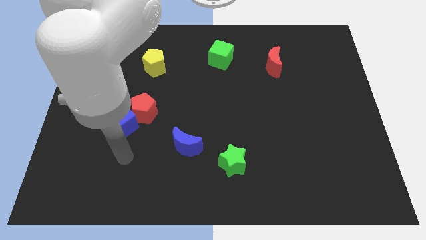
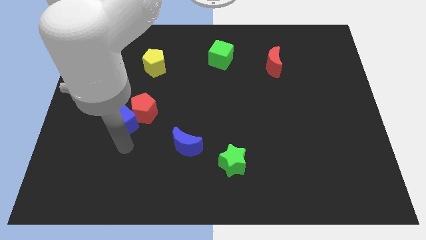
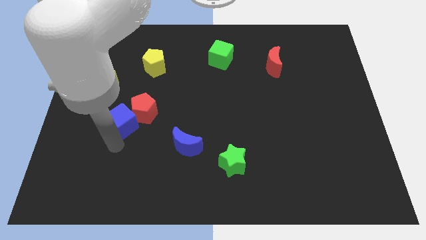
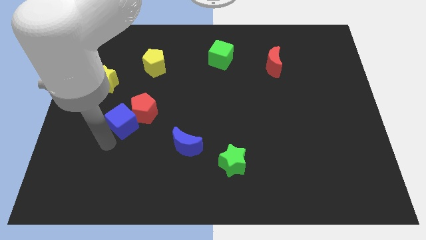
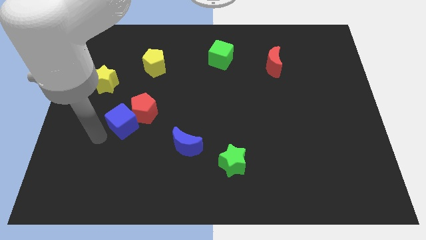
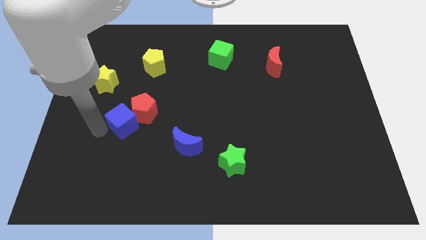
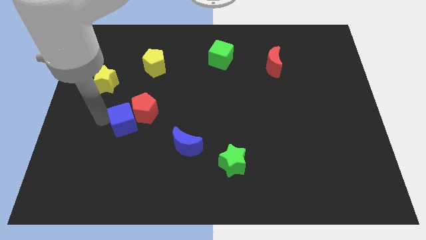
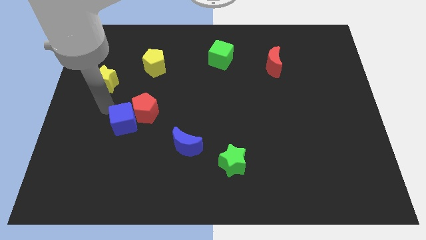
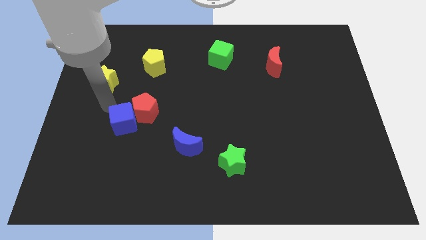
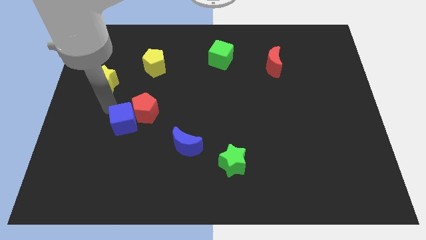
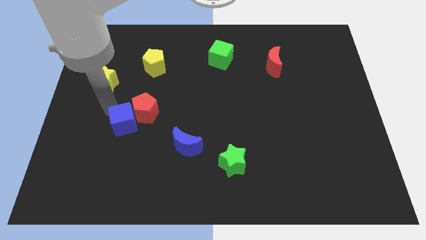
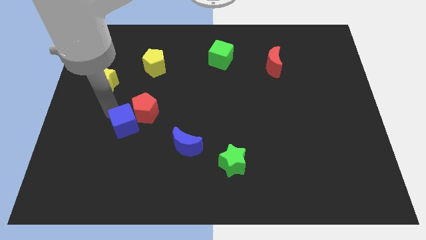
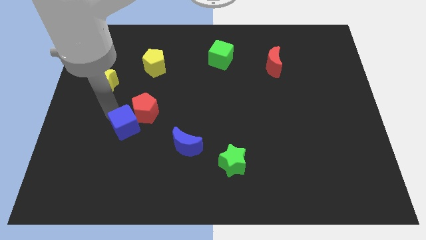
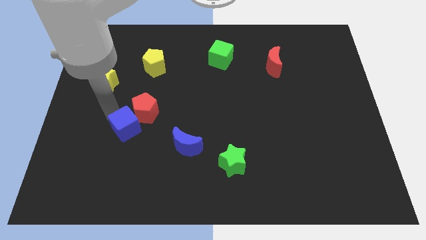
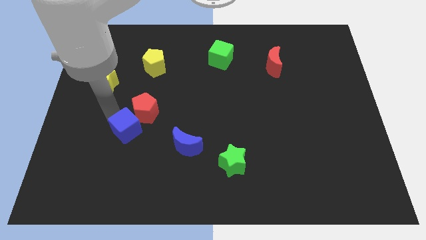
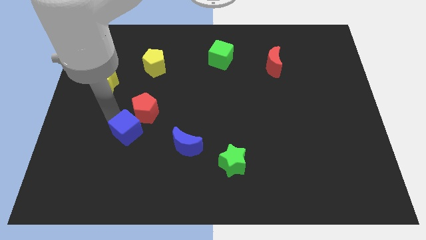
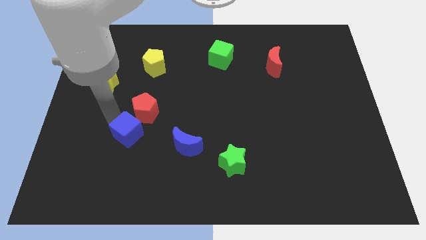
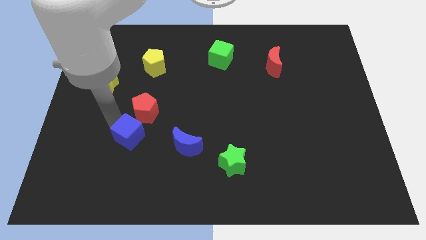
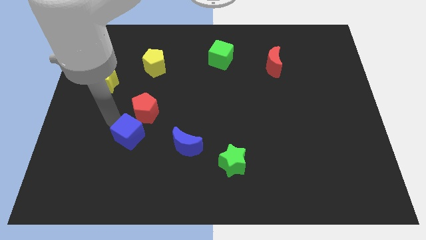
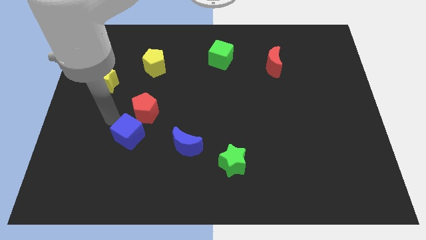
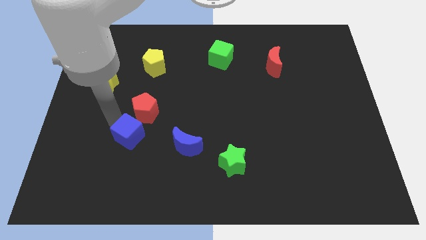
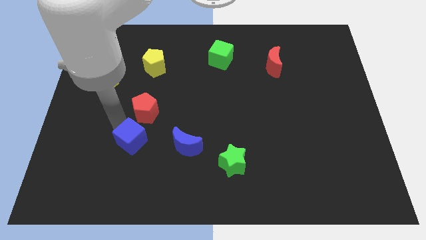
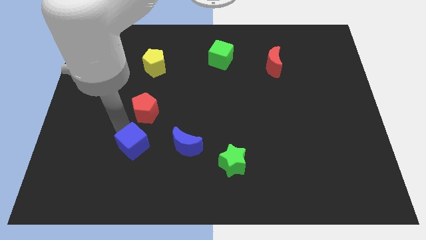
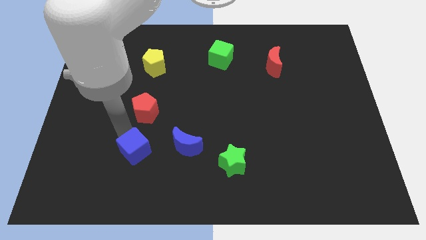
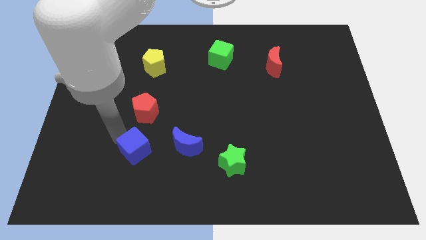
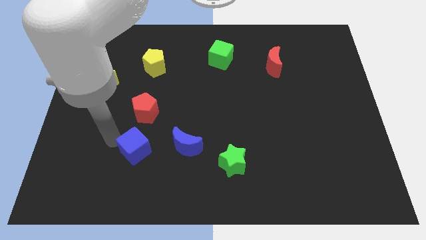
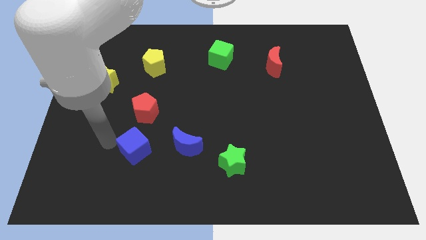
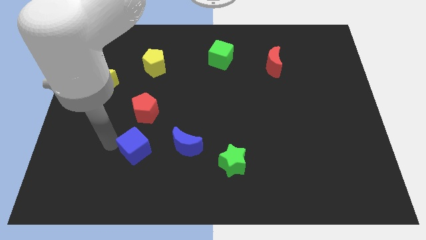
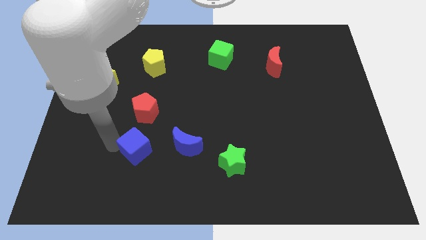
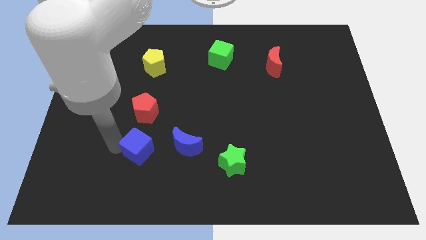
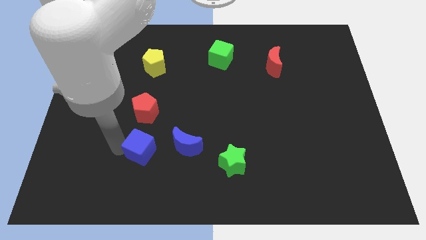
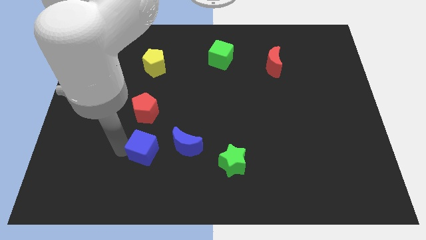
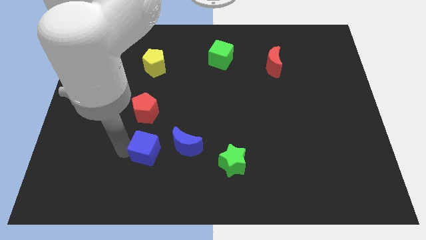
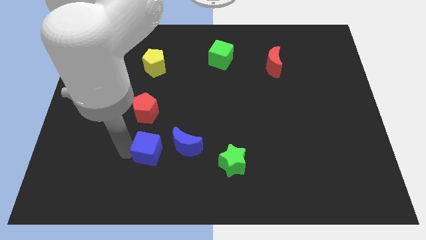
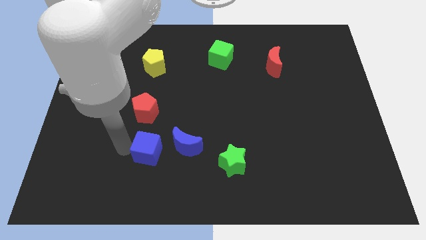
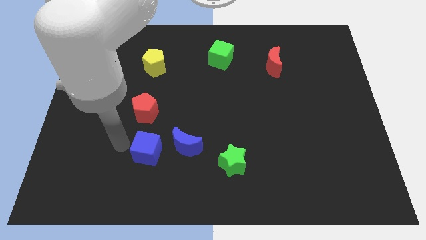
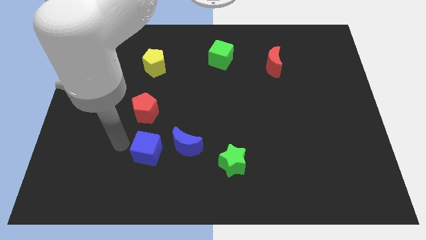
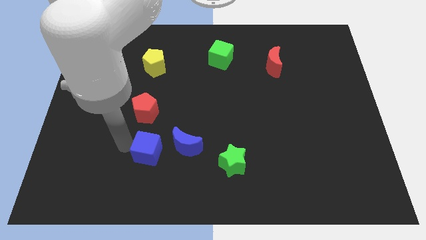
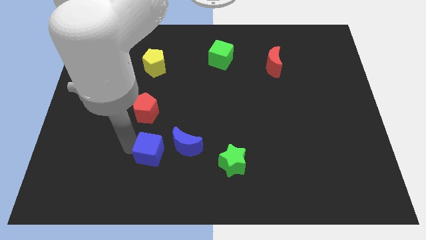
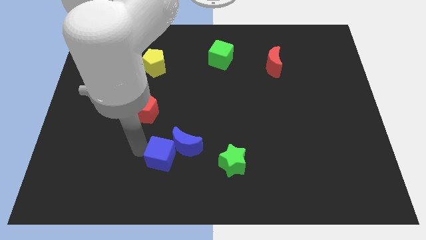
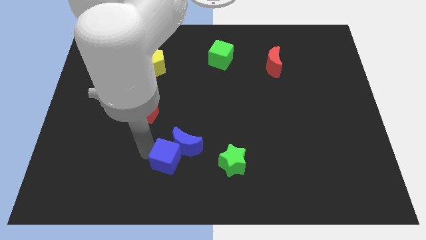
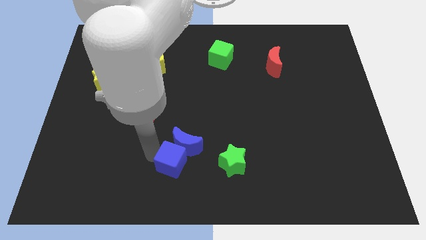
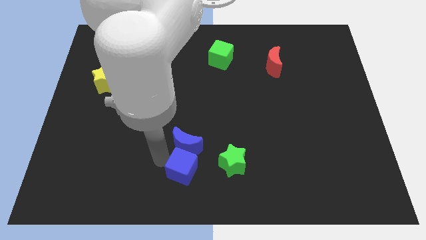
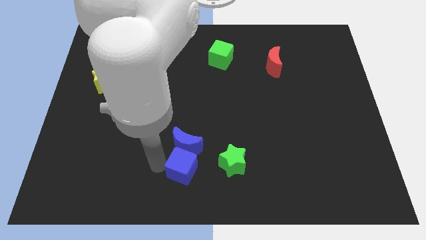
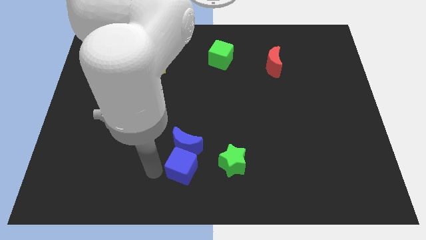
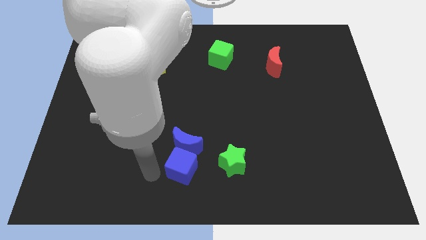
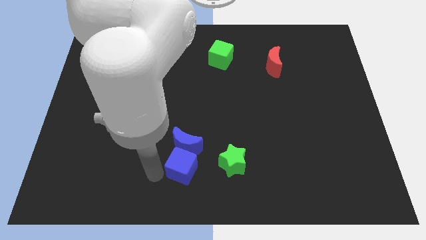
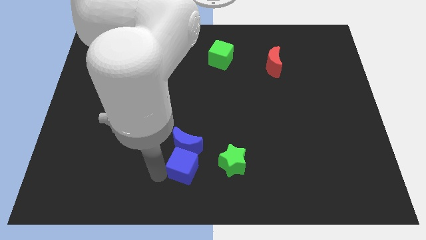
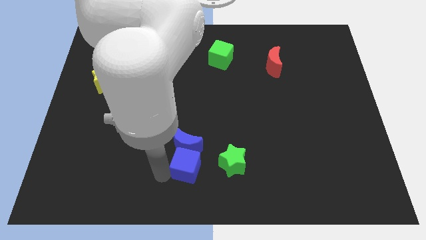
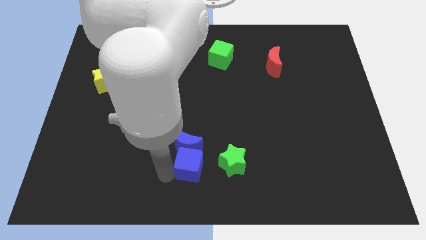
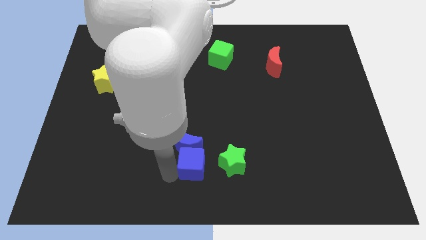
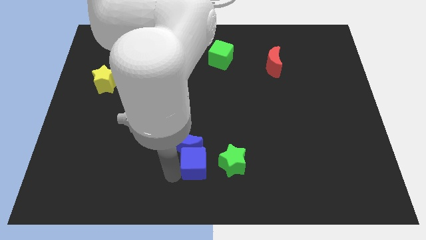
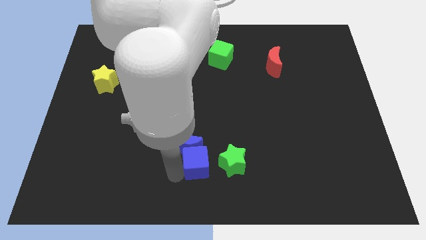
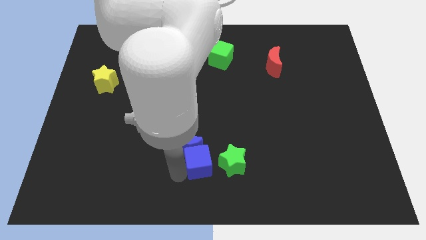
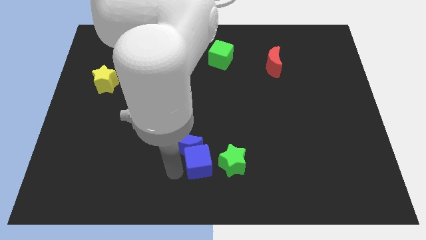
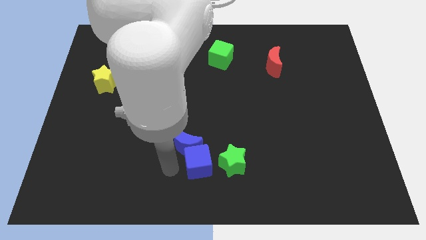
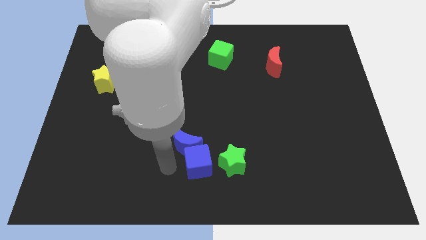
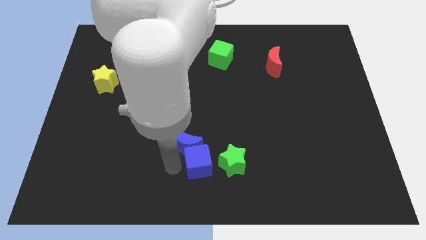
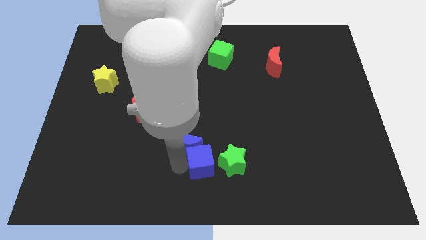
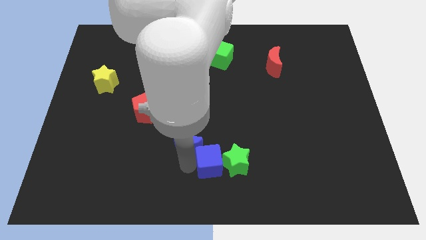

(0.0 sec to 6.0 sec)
slide the blue cube next to the green star
